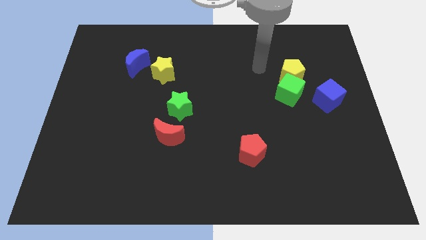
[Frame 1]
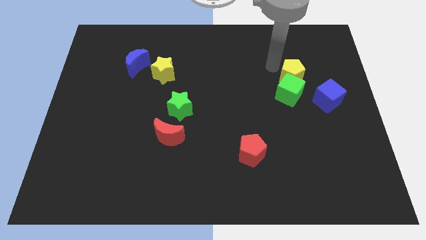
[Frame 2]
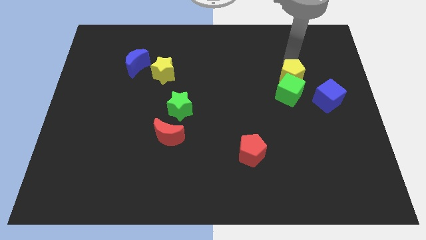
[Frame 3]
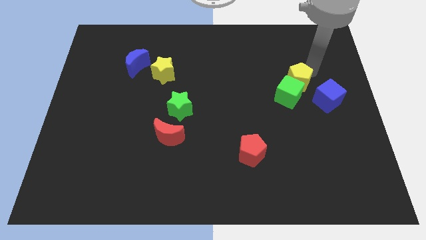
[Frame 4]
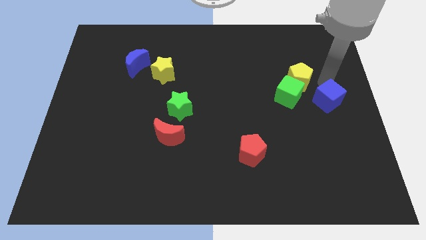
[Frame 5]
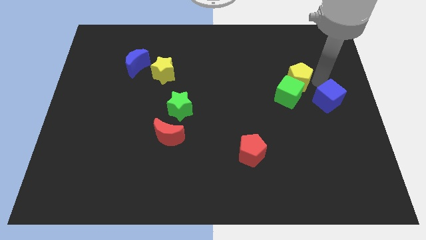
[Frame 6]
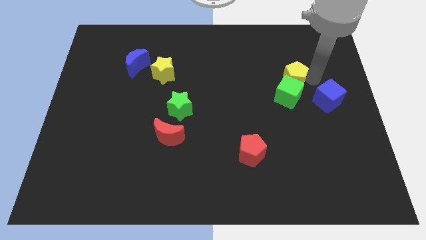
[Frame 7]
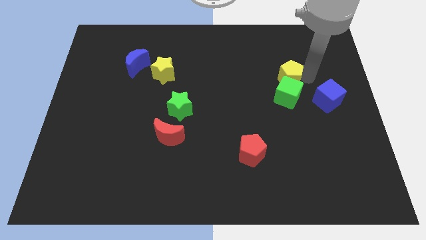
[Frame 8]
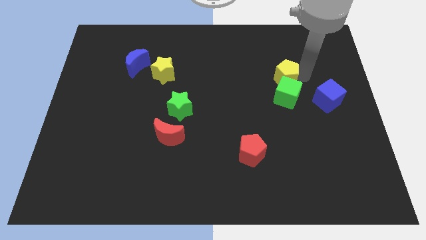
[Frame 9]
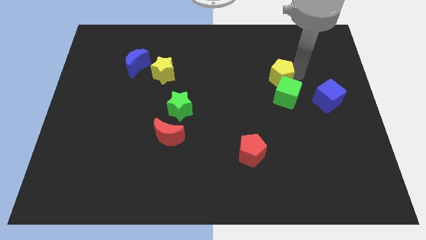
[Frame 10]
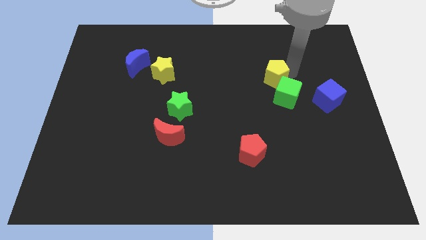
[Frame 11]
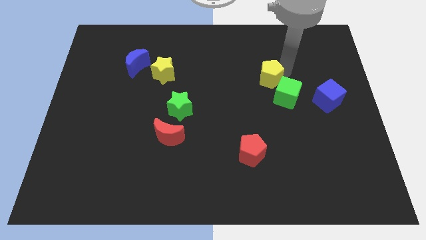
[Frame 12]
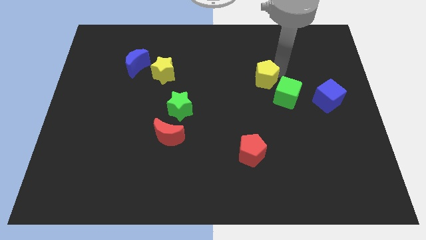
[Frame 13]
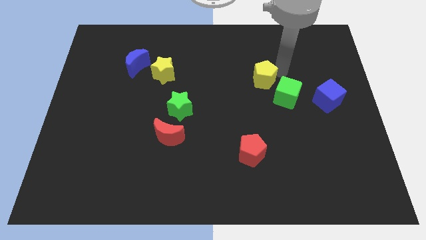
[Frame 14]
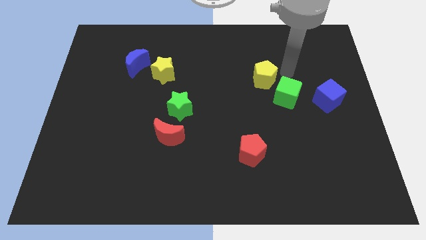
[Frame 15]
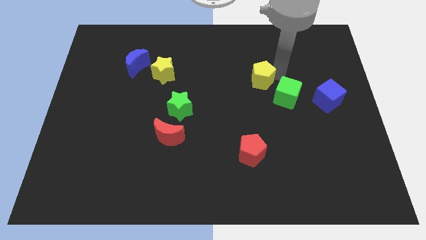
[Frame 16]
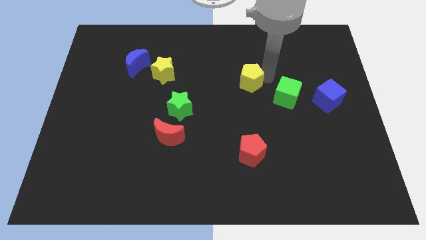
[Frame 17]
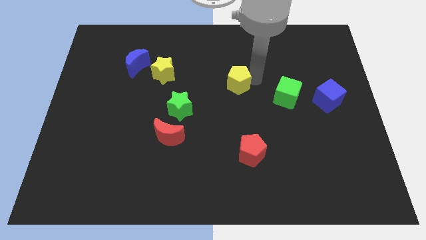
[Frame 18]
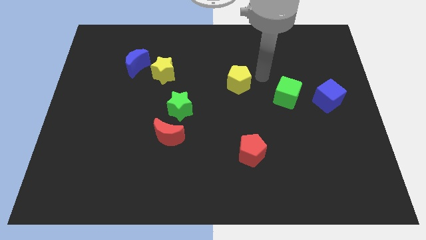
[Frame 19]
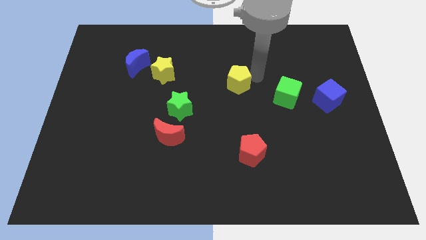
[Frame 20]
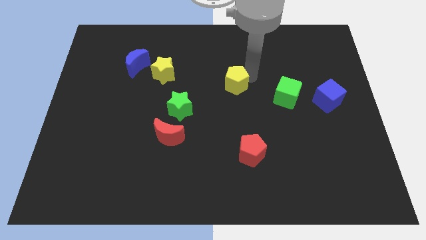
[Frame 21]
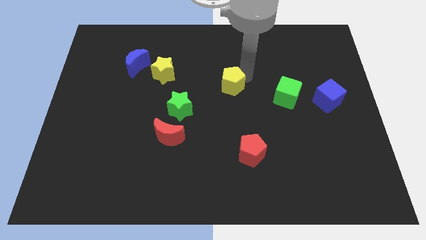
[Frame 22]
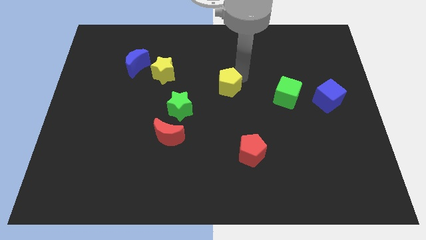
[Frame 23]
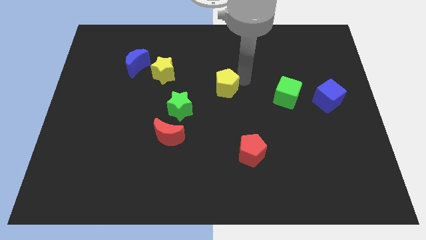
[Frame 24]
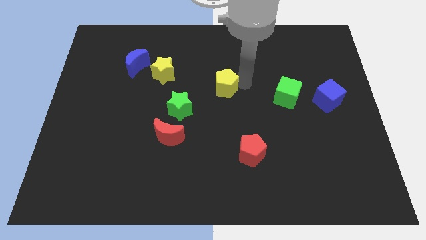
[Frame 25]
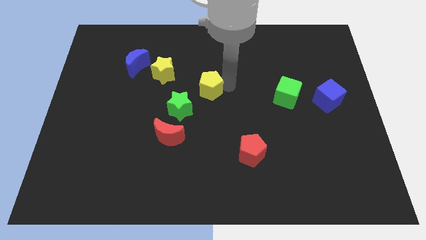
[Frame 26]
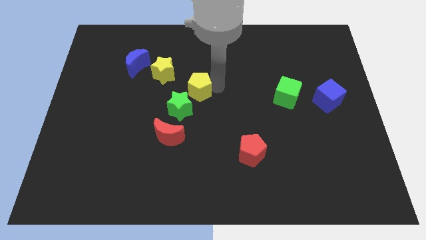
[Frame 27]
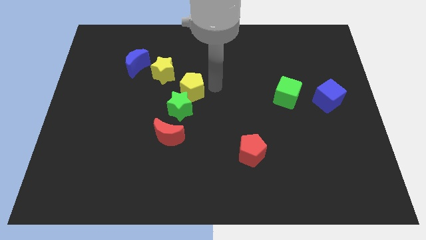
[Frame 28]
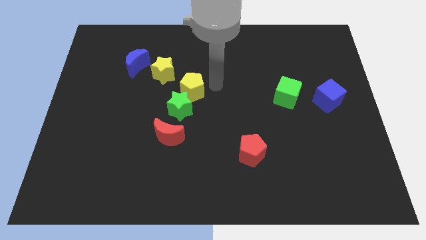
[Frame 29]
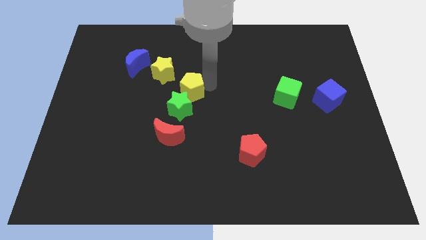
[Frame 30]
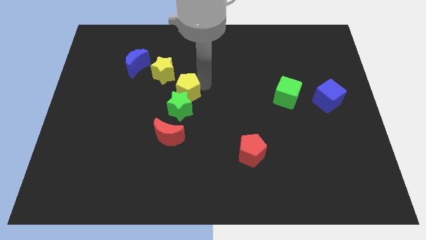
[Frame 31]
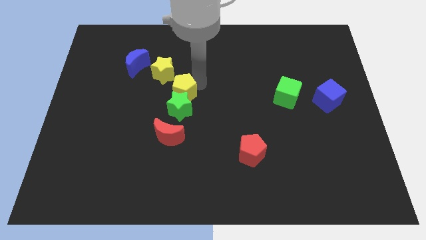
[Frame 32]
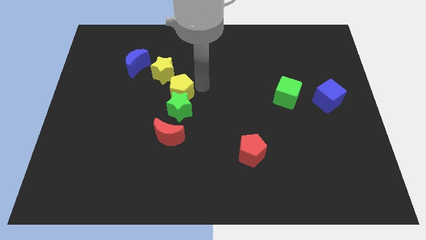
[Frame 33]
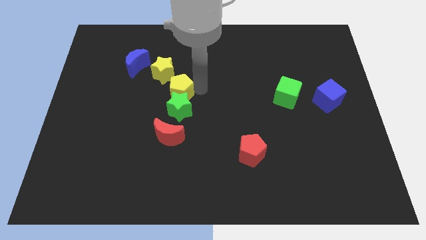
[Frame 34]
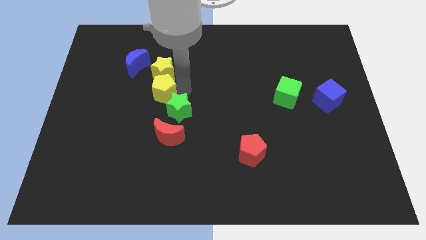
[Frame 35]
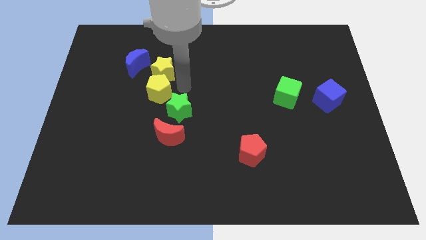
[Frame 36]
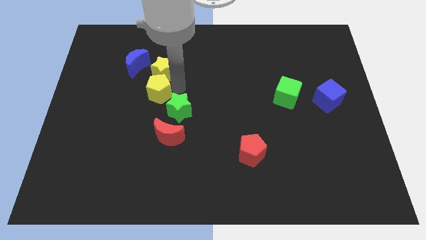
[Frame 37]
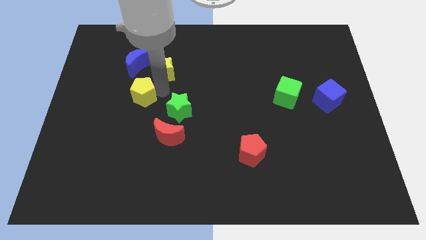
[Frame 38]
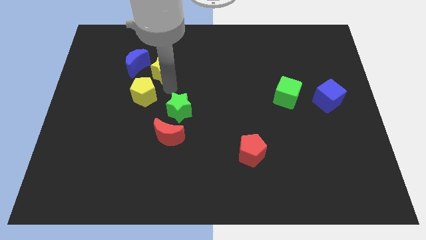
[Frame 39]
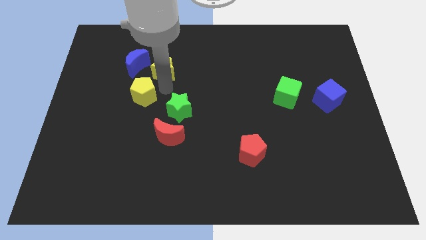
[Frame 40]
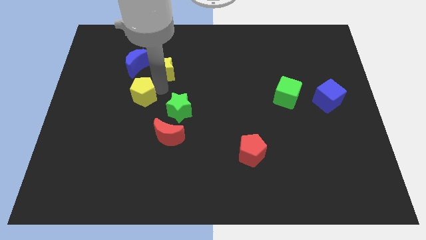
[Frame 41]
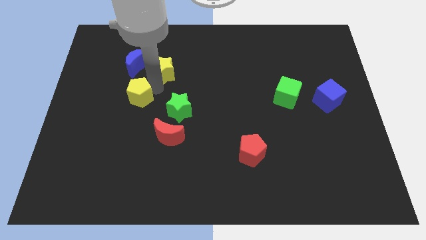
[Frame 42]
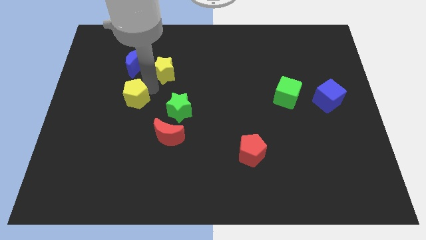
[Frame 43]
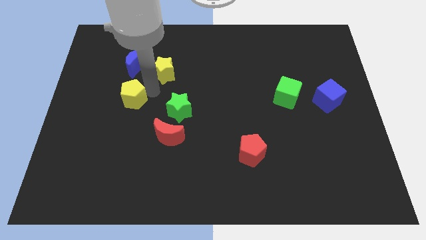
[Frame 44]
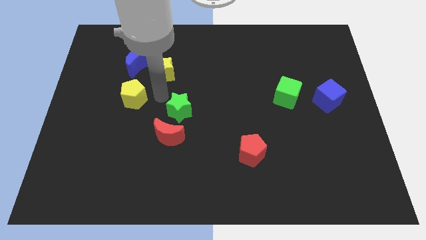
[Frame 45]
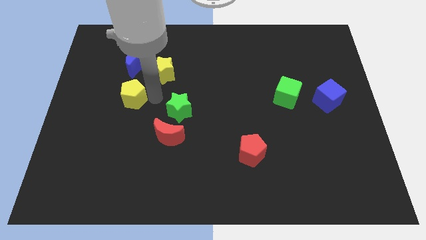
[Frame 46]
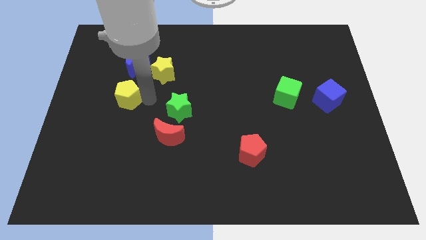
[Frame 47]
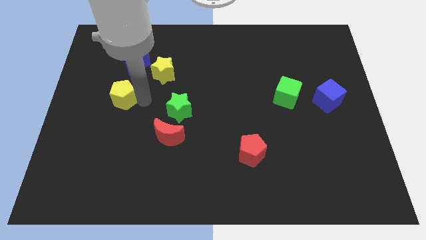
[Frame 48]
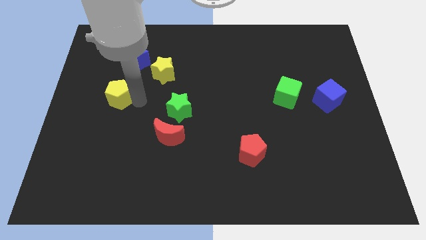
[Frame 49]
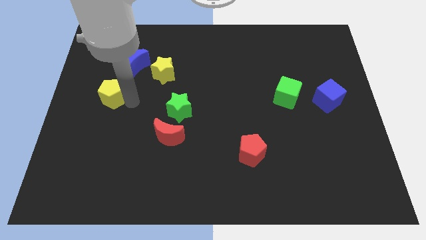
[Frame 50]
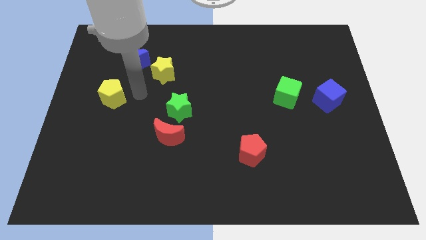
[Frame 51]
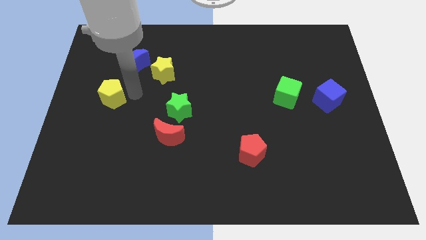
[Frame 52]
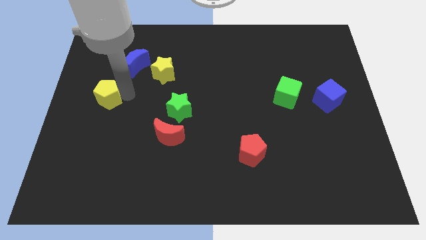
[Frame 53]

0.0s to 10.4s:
push the yellow pentagon to the left side
